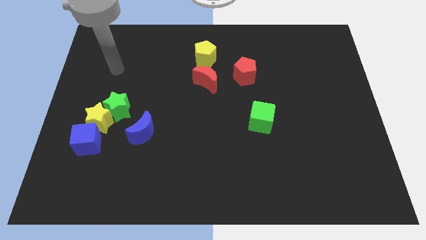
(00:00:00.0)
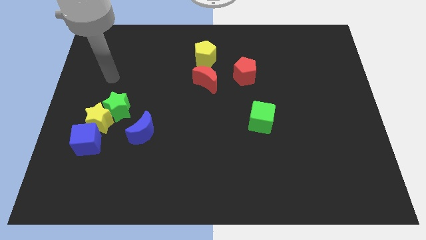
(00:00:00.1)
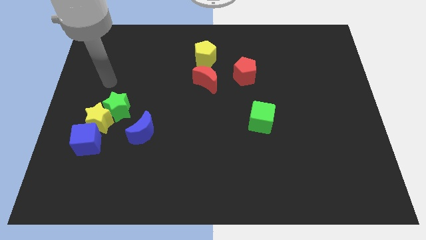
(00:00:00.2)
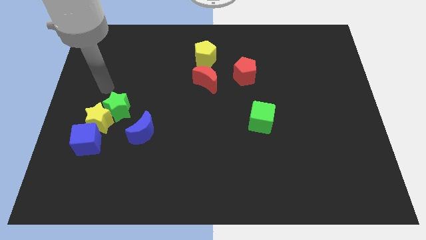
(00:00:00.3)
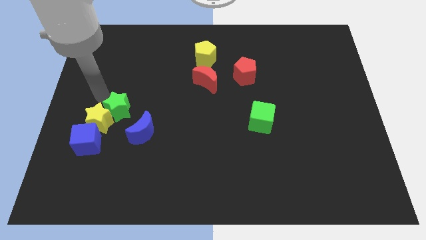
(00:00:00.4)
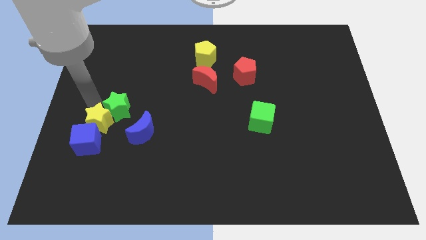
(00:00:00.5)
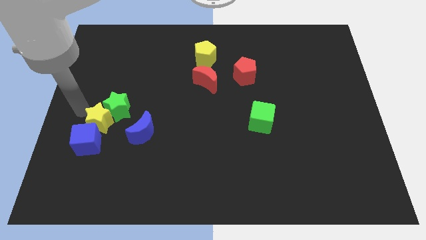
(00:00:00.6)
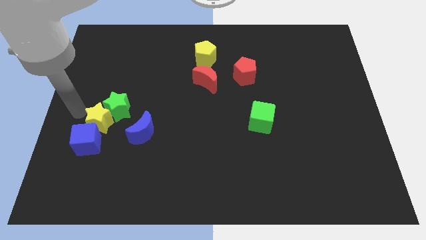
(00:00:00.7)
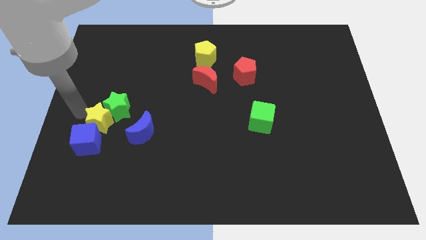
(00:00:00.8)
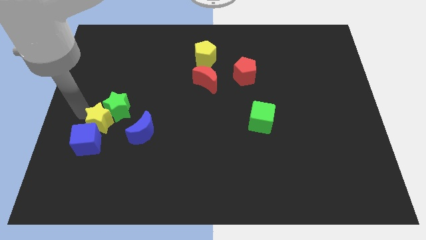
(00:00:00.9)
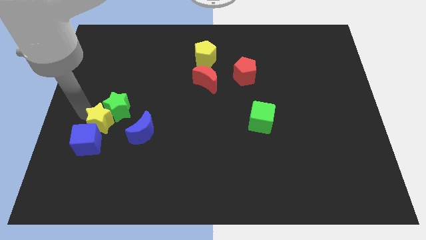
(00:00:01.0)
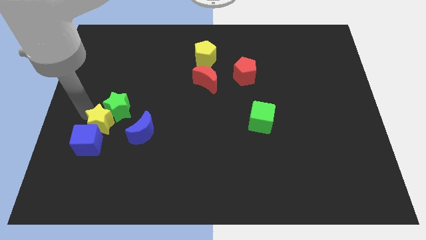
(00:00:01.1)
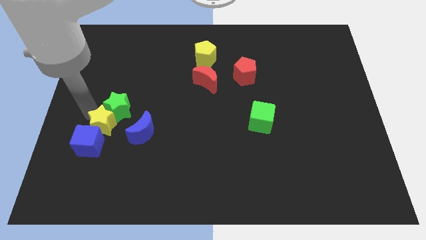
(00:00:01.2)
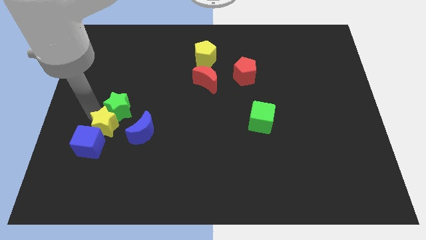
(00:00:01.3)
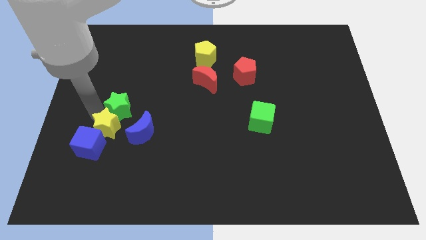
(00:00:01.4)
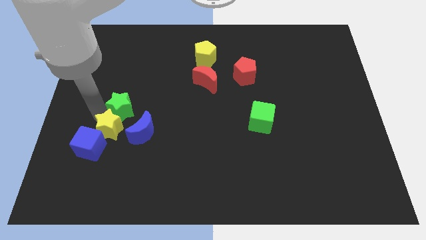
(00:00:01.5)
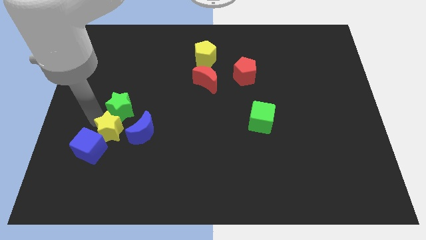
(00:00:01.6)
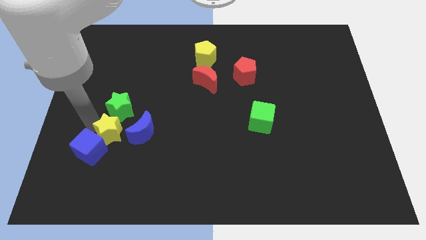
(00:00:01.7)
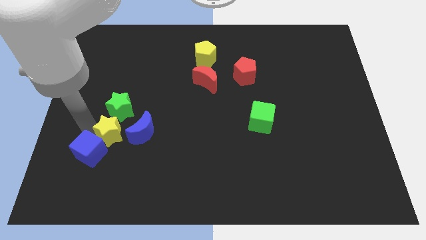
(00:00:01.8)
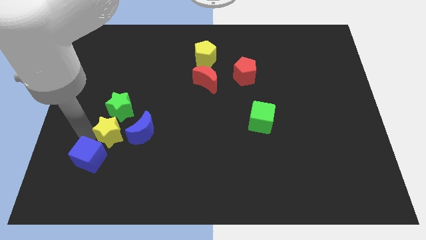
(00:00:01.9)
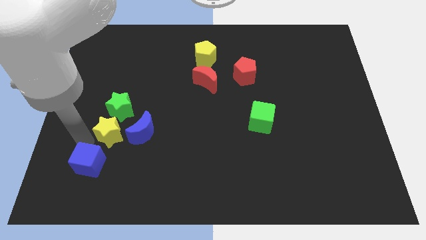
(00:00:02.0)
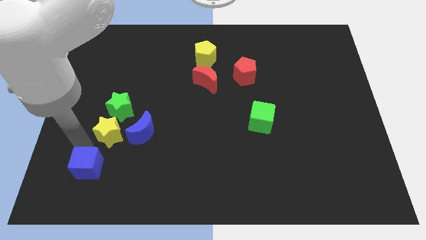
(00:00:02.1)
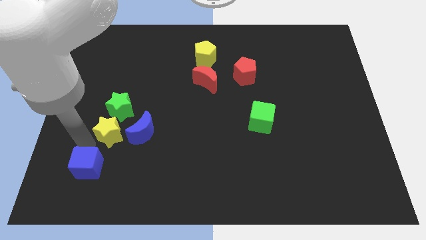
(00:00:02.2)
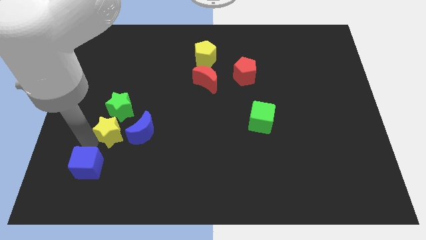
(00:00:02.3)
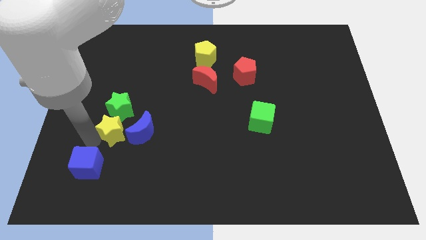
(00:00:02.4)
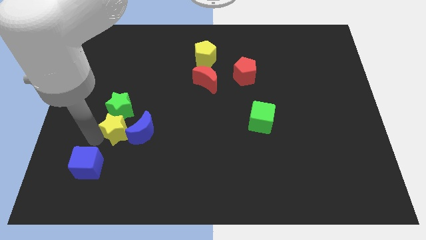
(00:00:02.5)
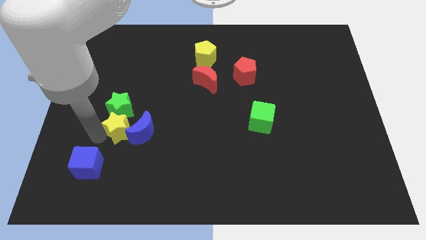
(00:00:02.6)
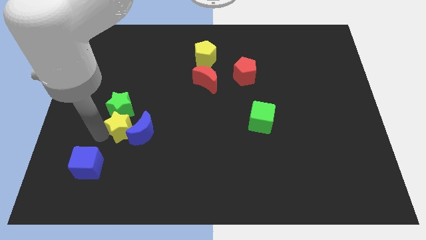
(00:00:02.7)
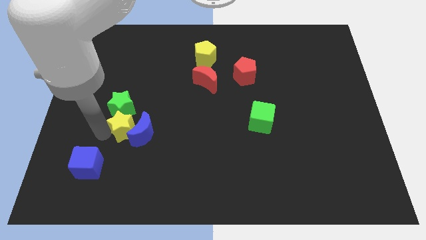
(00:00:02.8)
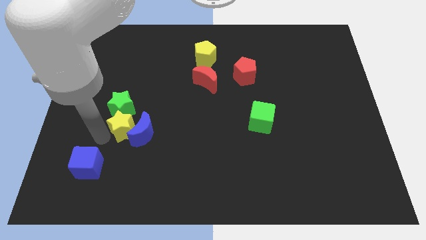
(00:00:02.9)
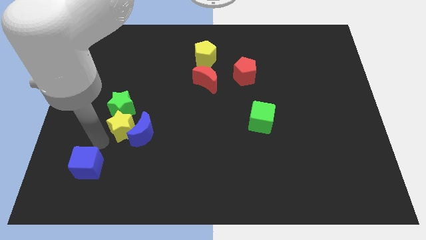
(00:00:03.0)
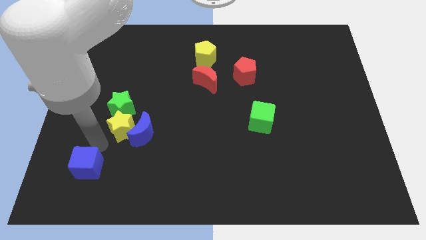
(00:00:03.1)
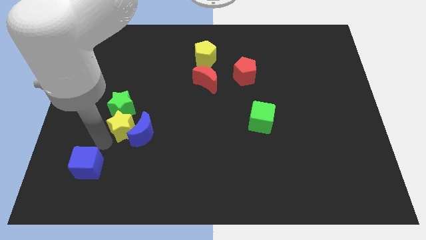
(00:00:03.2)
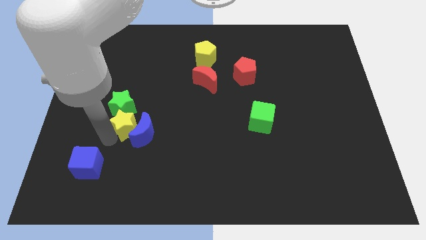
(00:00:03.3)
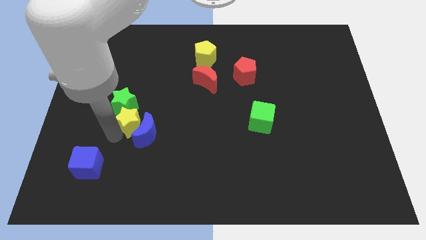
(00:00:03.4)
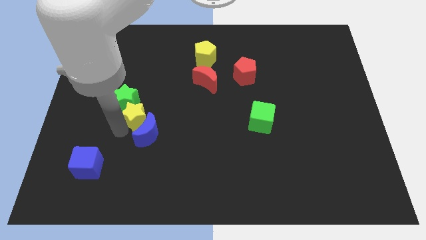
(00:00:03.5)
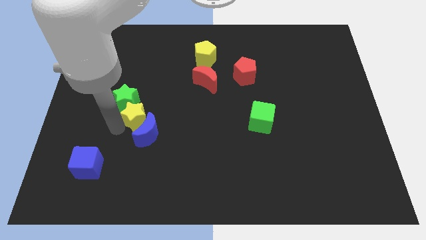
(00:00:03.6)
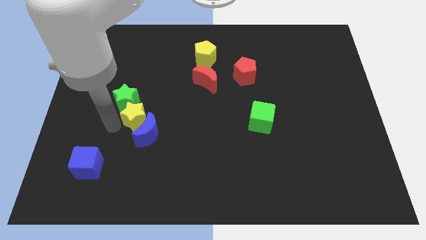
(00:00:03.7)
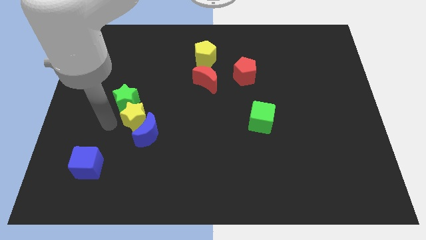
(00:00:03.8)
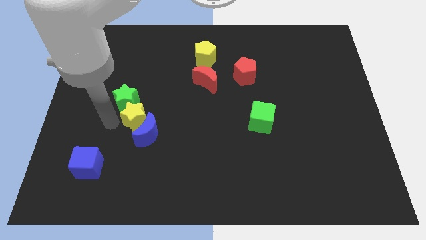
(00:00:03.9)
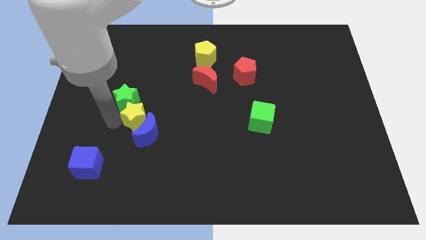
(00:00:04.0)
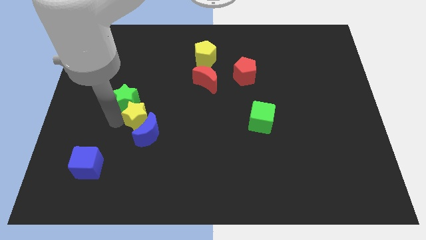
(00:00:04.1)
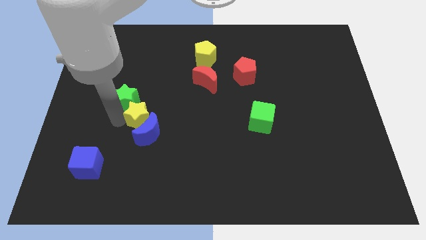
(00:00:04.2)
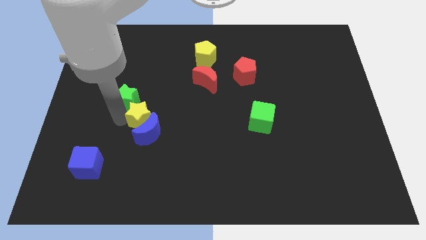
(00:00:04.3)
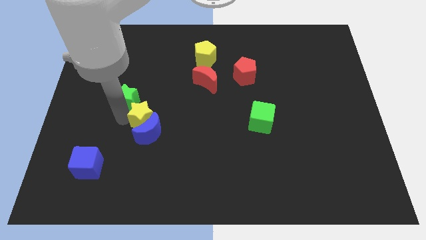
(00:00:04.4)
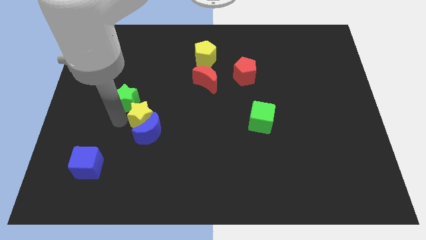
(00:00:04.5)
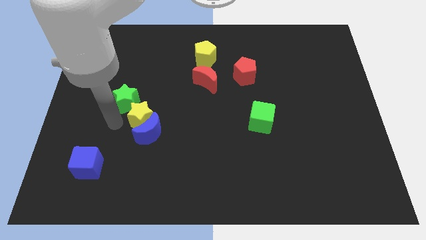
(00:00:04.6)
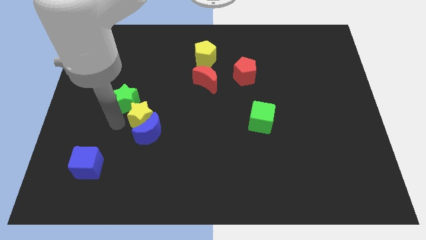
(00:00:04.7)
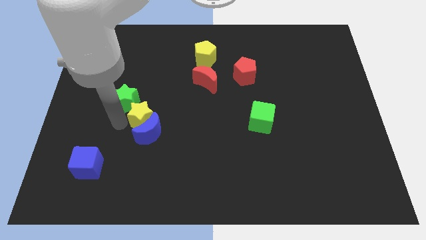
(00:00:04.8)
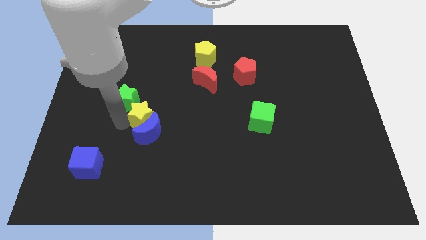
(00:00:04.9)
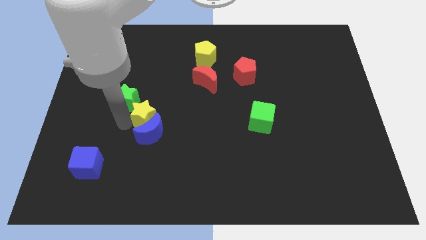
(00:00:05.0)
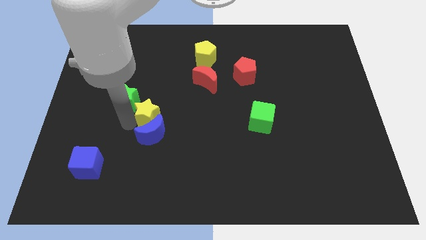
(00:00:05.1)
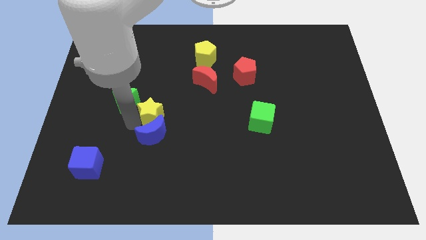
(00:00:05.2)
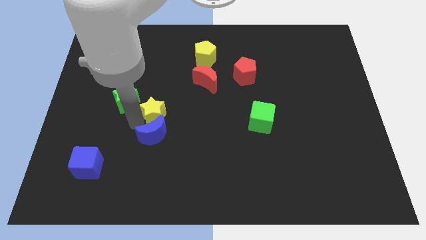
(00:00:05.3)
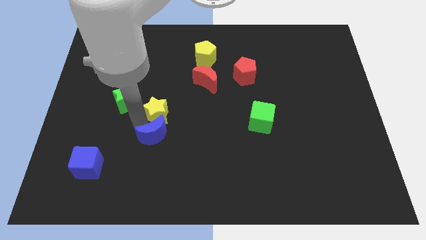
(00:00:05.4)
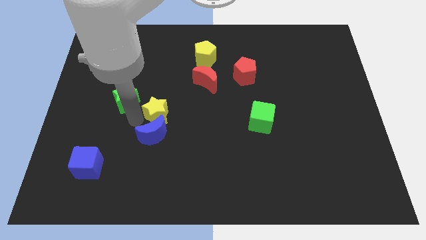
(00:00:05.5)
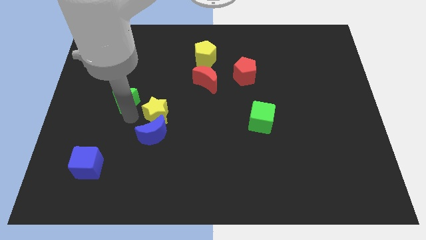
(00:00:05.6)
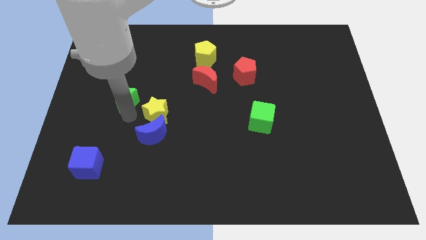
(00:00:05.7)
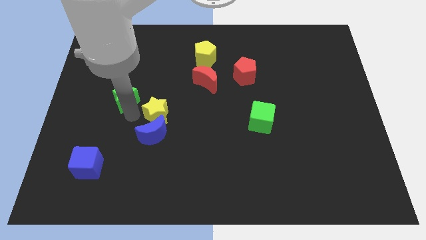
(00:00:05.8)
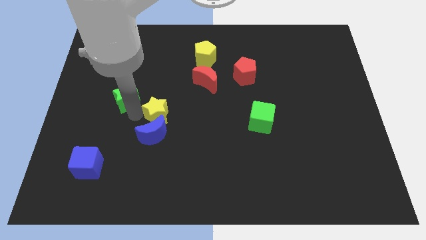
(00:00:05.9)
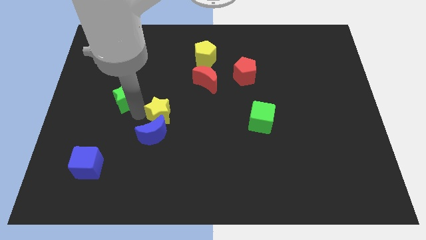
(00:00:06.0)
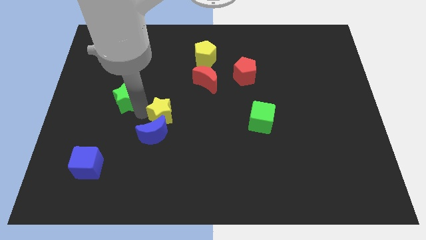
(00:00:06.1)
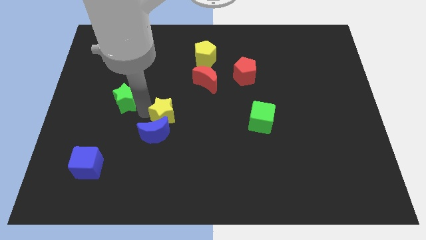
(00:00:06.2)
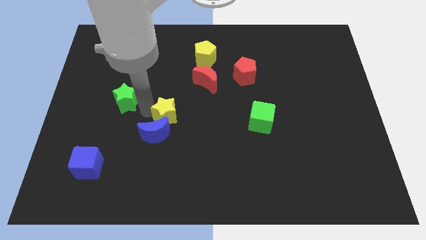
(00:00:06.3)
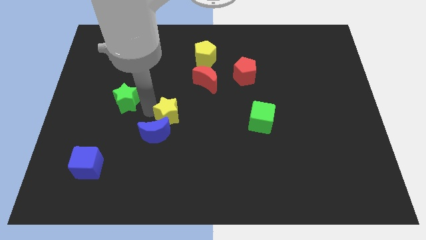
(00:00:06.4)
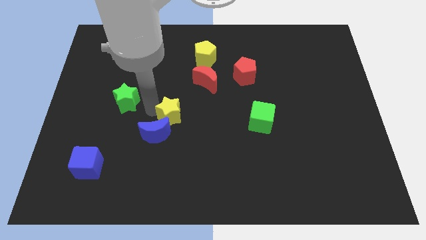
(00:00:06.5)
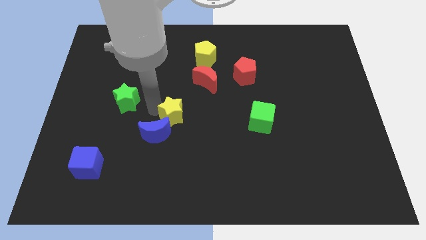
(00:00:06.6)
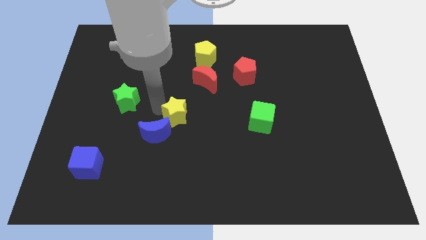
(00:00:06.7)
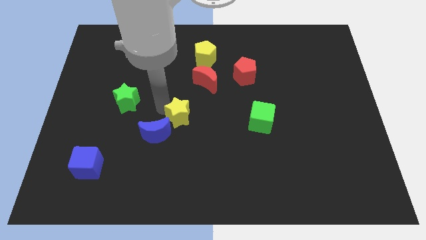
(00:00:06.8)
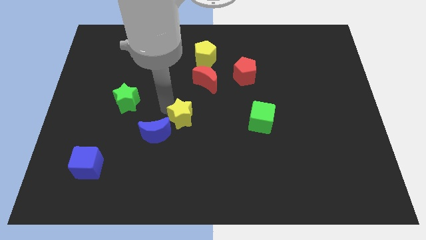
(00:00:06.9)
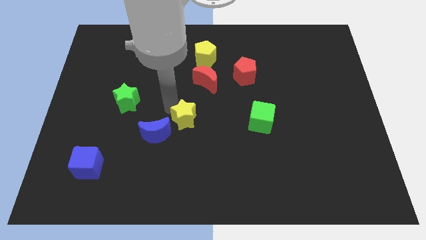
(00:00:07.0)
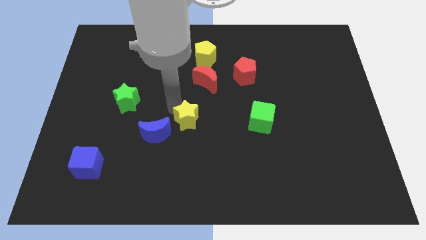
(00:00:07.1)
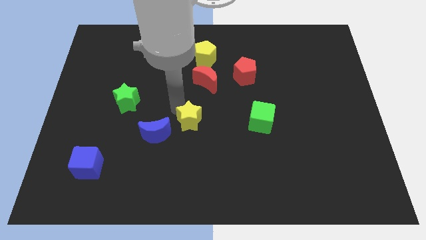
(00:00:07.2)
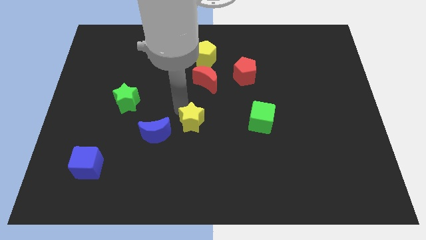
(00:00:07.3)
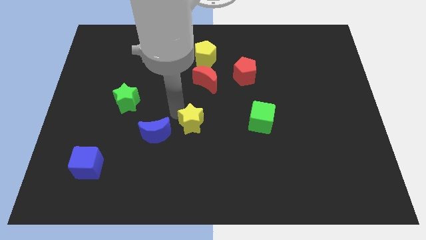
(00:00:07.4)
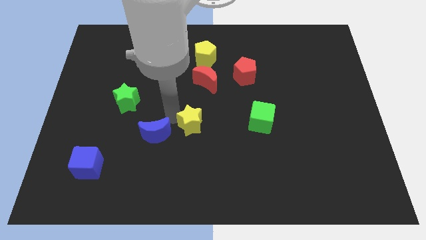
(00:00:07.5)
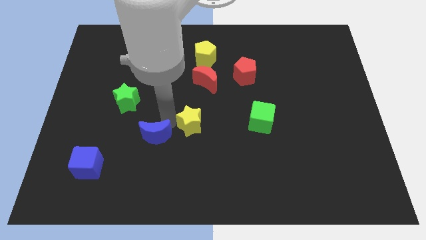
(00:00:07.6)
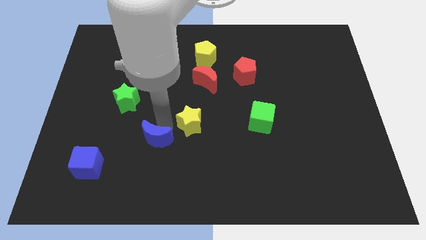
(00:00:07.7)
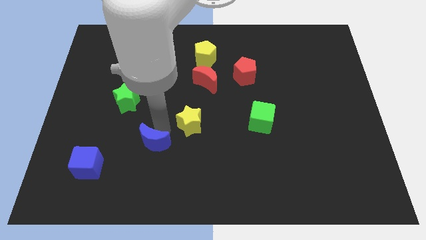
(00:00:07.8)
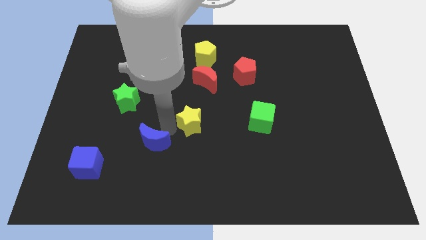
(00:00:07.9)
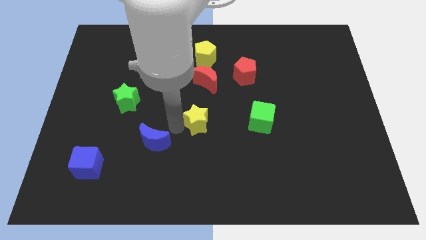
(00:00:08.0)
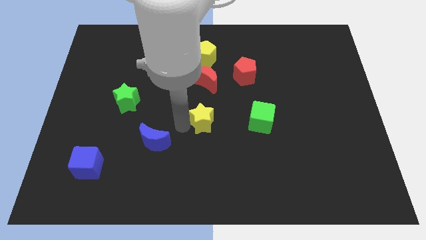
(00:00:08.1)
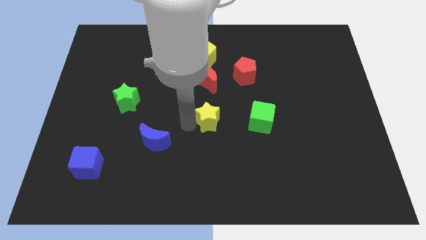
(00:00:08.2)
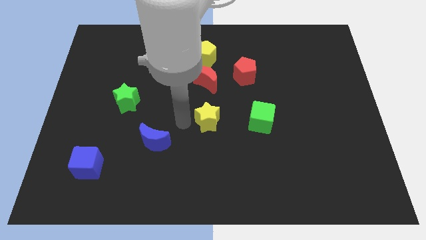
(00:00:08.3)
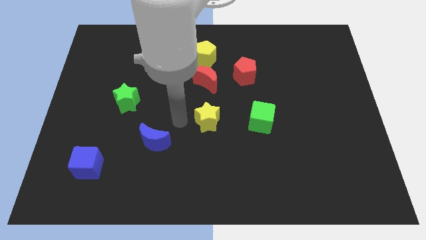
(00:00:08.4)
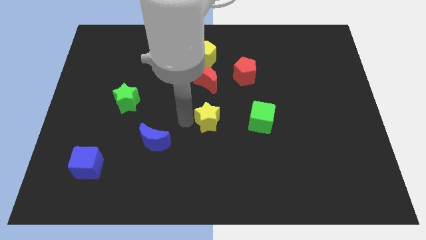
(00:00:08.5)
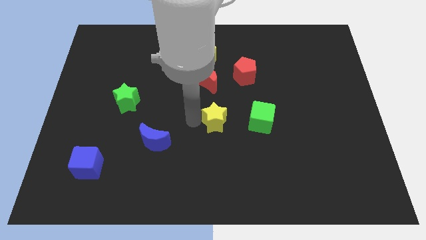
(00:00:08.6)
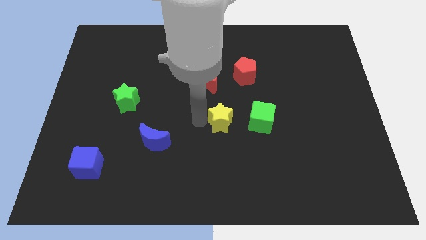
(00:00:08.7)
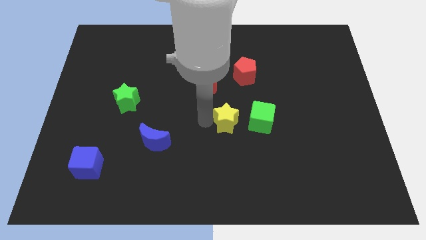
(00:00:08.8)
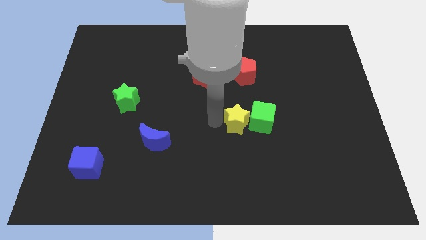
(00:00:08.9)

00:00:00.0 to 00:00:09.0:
put the yellow star to the green cube
